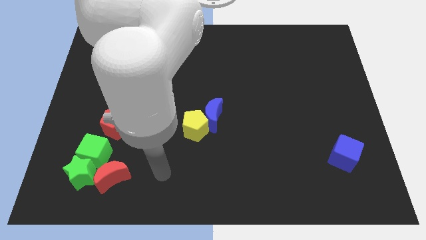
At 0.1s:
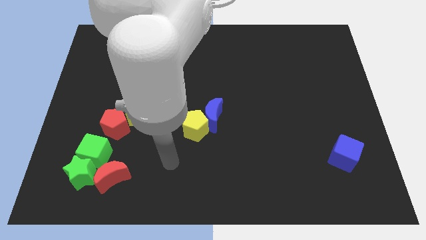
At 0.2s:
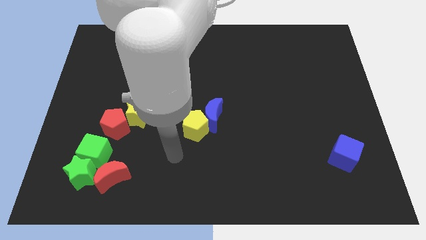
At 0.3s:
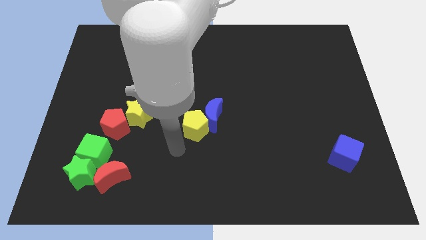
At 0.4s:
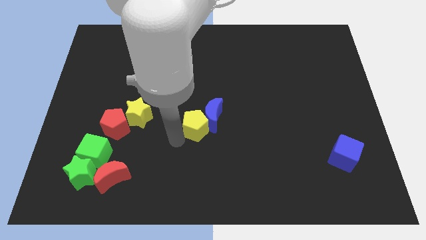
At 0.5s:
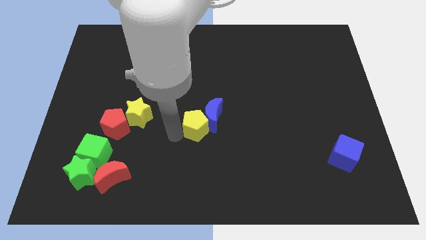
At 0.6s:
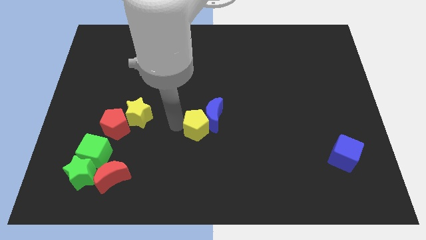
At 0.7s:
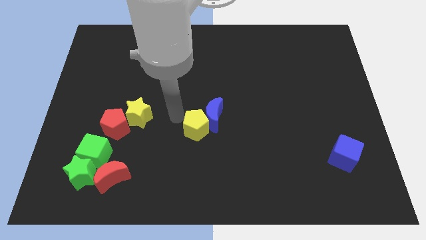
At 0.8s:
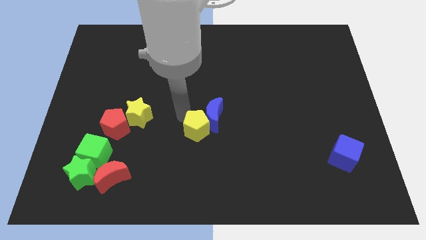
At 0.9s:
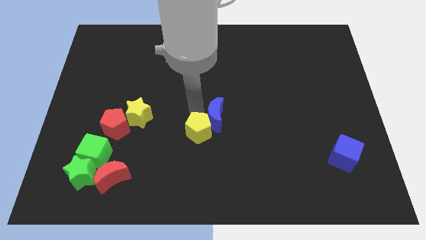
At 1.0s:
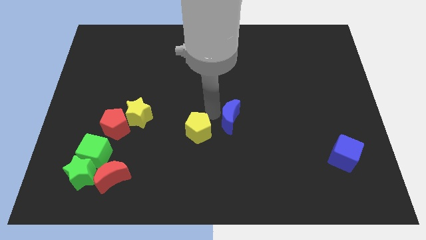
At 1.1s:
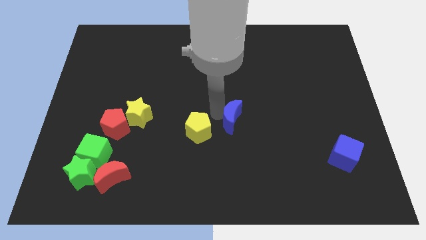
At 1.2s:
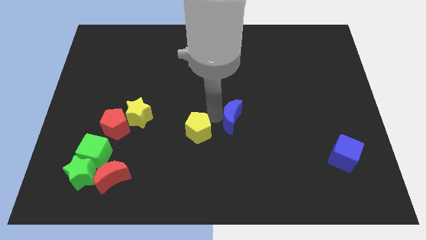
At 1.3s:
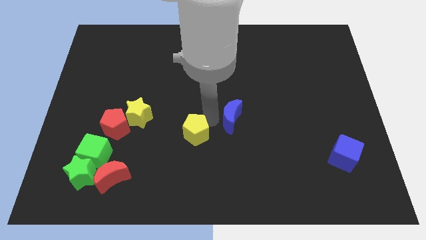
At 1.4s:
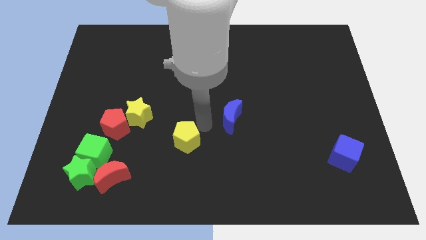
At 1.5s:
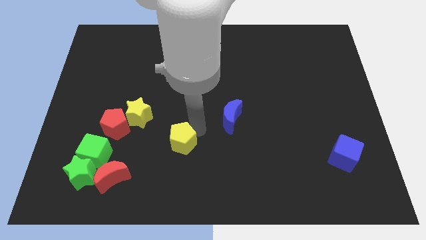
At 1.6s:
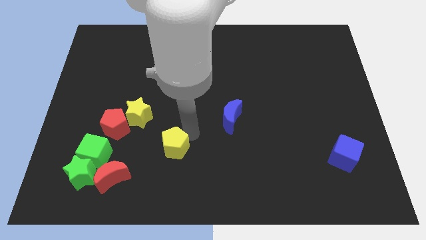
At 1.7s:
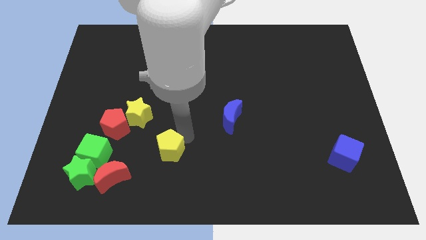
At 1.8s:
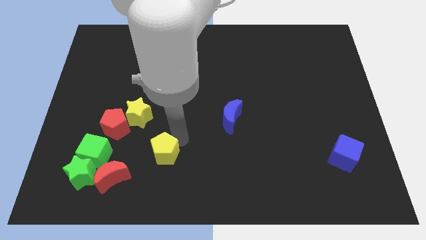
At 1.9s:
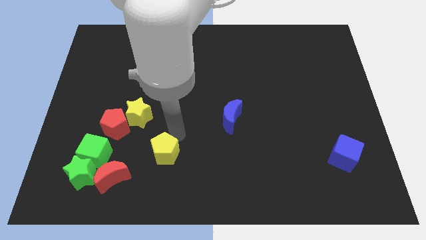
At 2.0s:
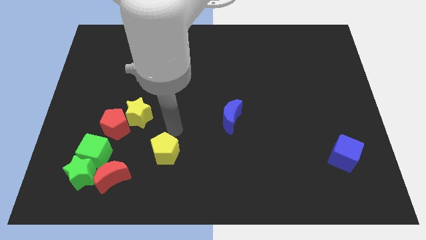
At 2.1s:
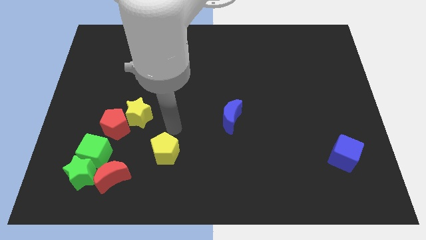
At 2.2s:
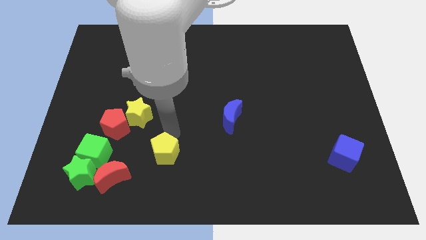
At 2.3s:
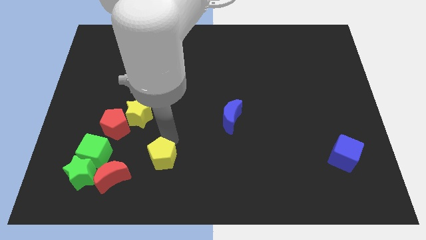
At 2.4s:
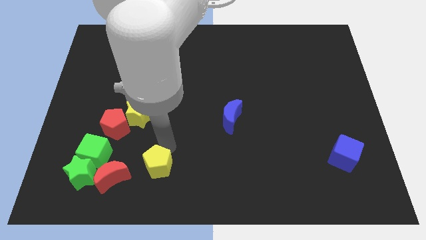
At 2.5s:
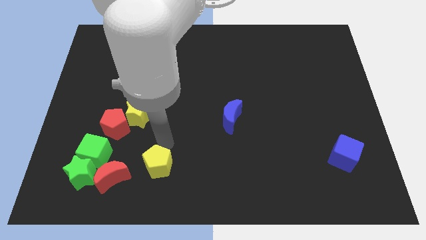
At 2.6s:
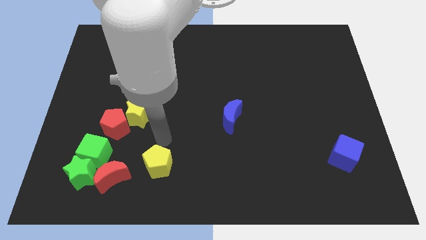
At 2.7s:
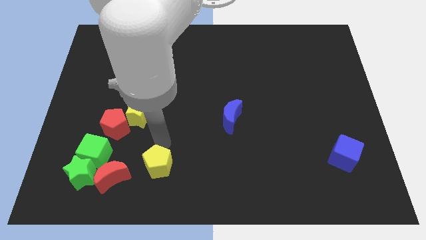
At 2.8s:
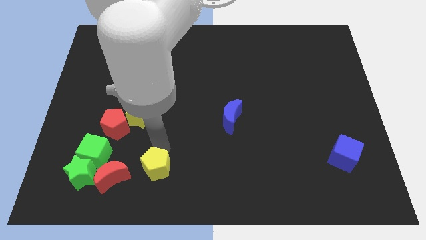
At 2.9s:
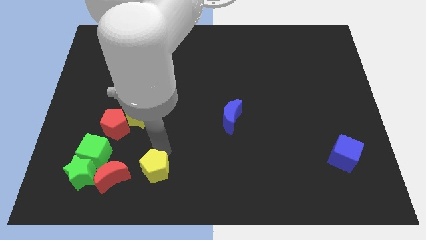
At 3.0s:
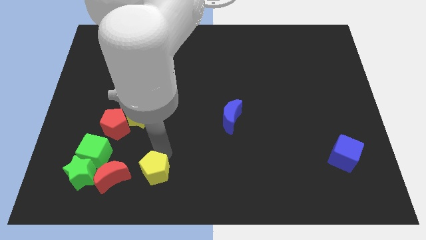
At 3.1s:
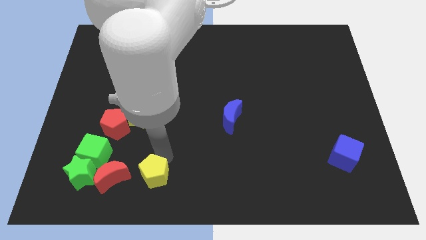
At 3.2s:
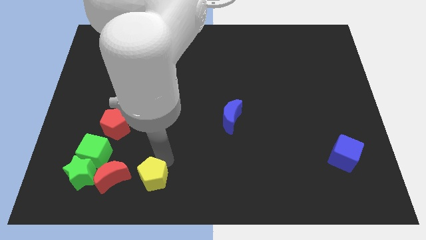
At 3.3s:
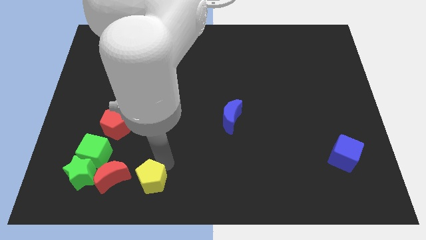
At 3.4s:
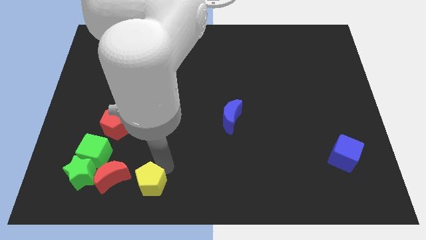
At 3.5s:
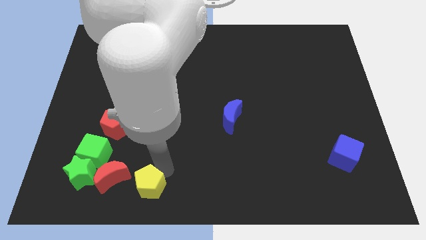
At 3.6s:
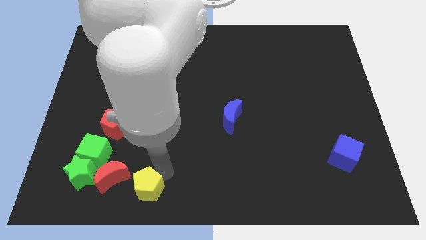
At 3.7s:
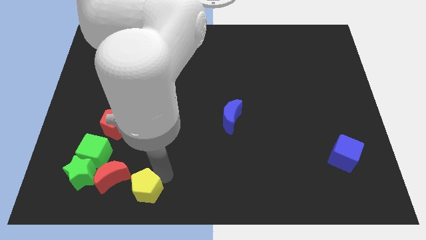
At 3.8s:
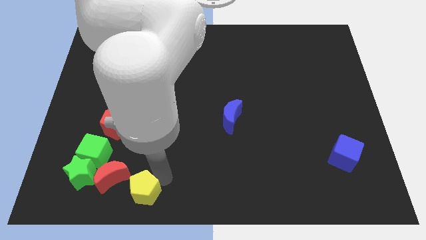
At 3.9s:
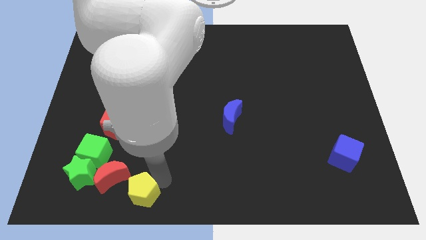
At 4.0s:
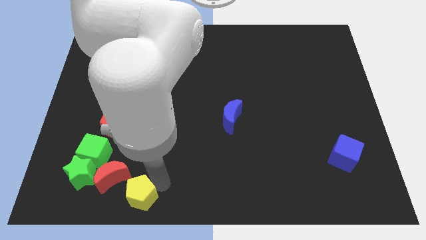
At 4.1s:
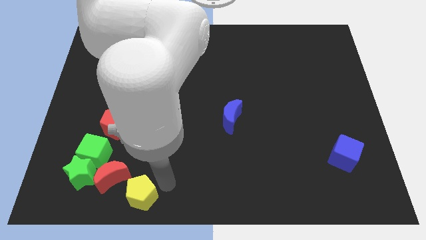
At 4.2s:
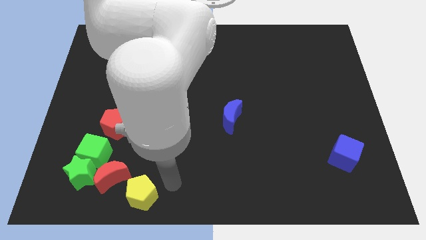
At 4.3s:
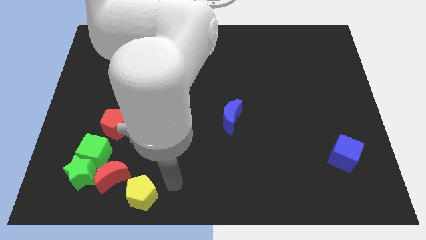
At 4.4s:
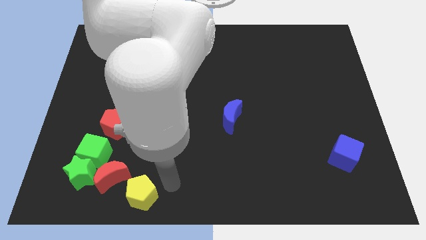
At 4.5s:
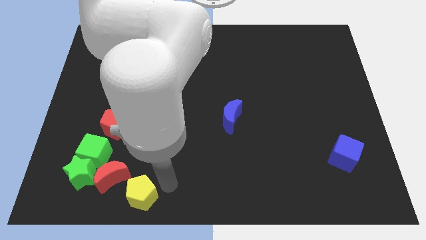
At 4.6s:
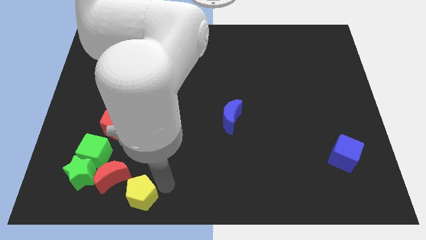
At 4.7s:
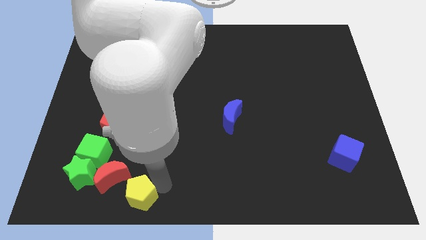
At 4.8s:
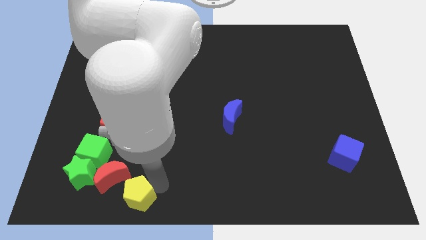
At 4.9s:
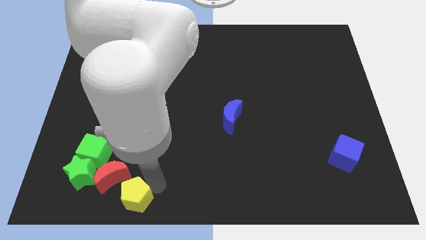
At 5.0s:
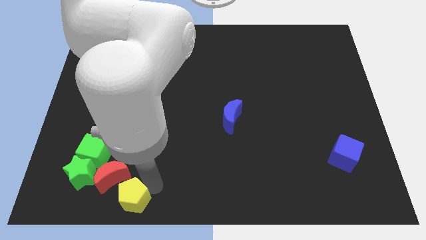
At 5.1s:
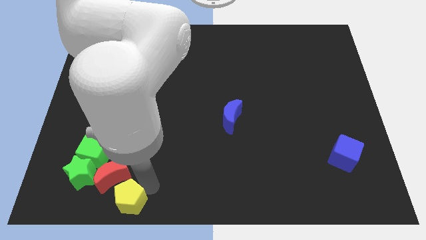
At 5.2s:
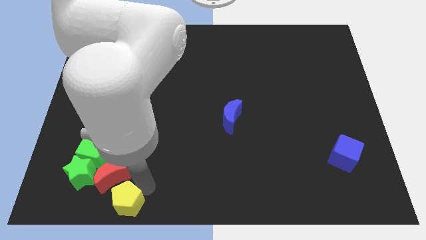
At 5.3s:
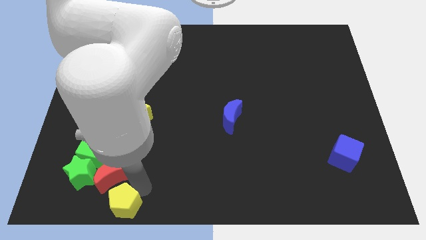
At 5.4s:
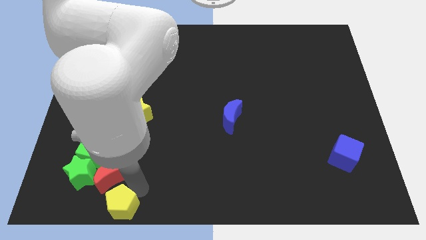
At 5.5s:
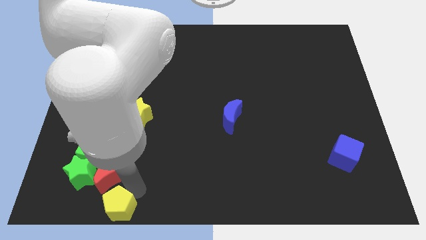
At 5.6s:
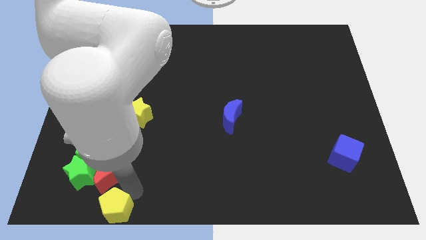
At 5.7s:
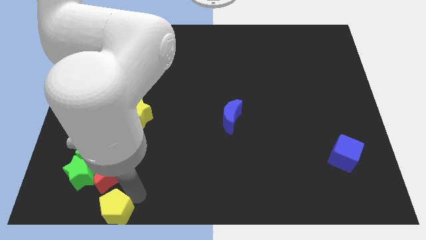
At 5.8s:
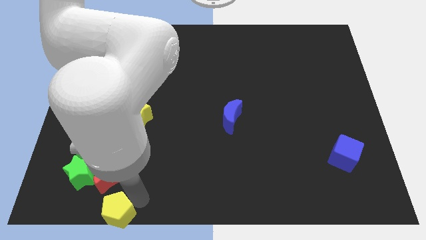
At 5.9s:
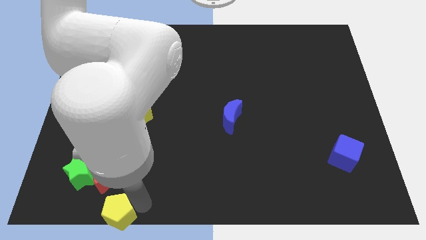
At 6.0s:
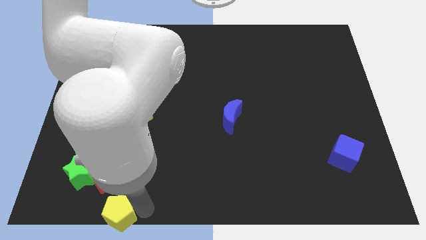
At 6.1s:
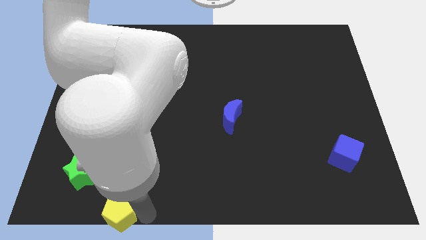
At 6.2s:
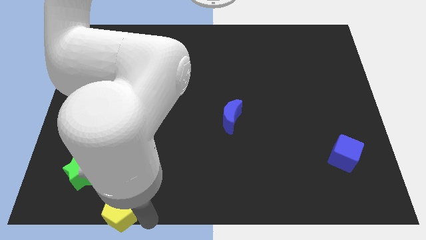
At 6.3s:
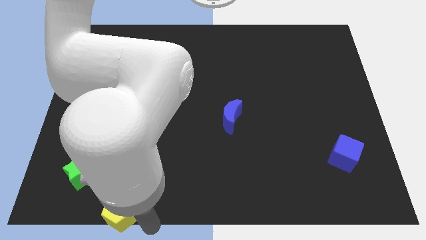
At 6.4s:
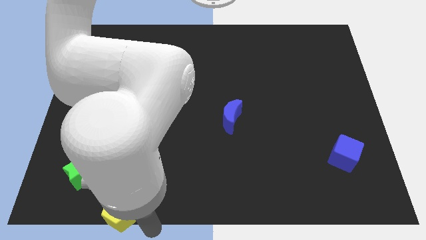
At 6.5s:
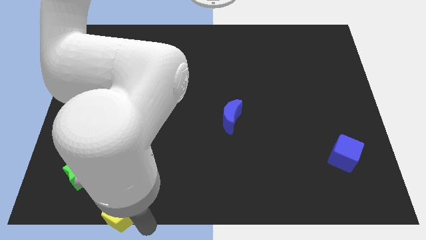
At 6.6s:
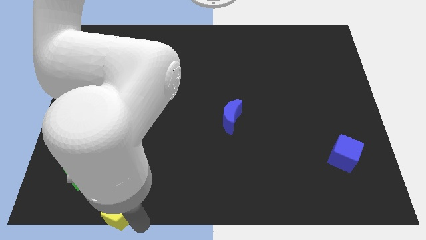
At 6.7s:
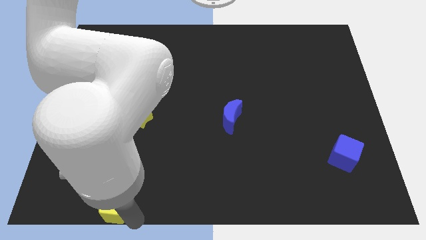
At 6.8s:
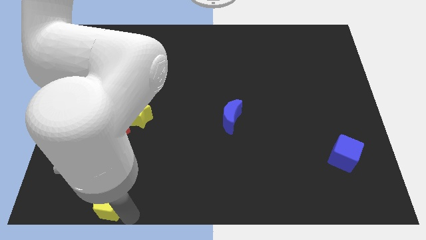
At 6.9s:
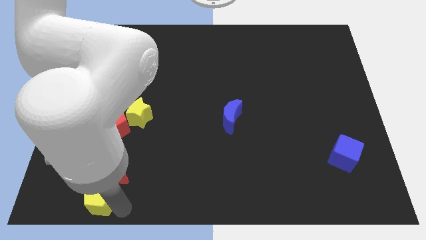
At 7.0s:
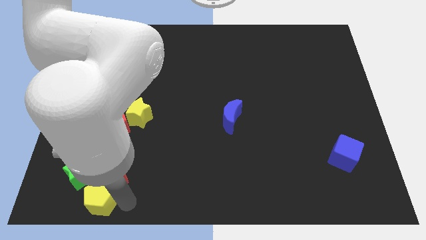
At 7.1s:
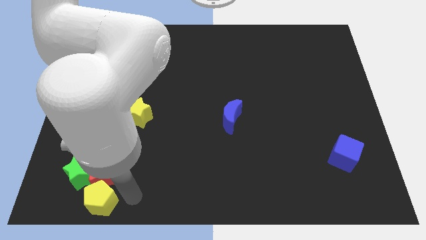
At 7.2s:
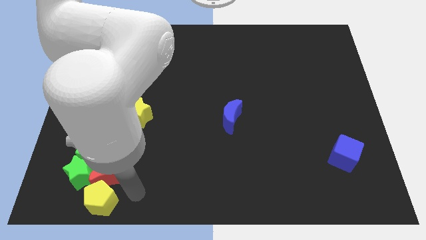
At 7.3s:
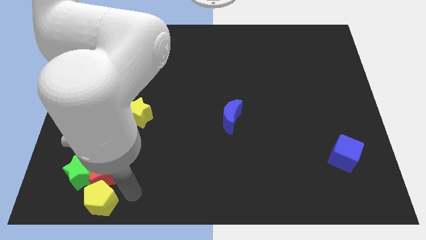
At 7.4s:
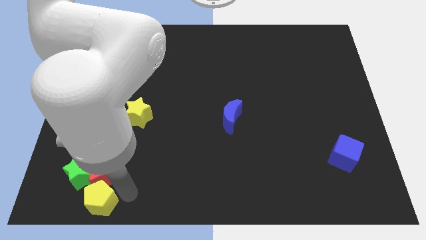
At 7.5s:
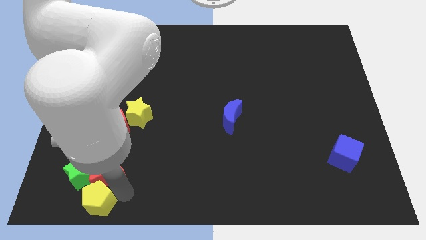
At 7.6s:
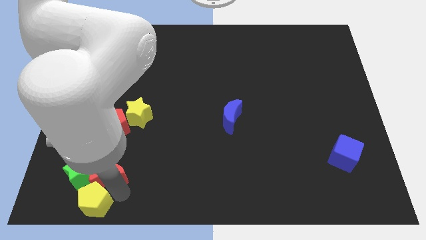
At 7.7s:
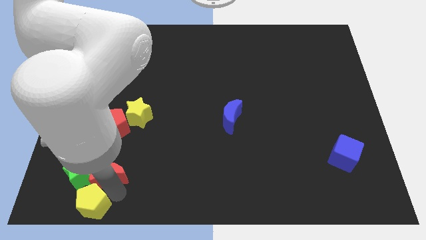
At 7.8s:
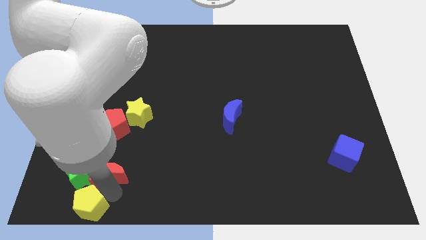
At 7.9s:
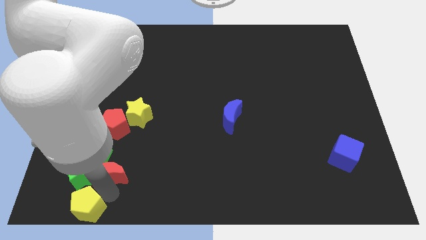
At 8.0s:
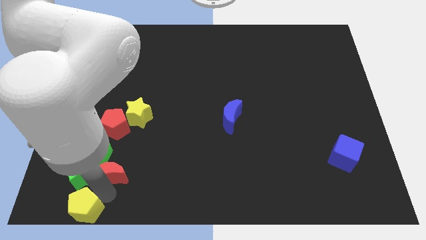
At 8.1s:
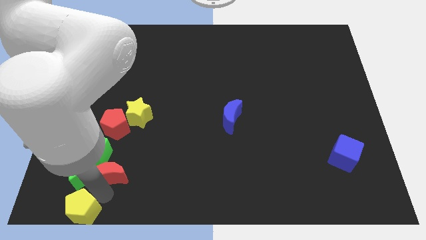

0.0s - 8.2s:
move the yellow pentagon to the bottom left corner
